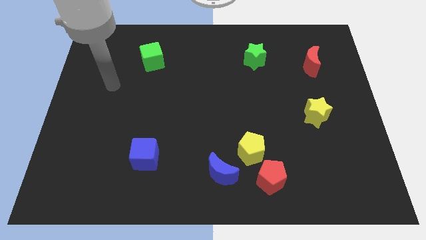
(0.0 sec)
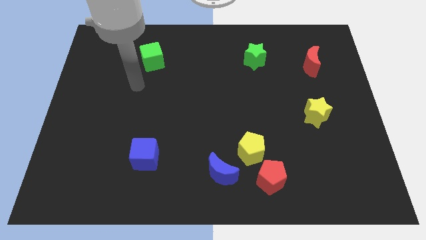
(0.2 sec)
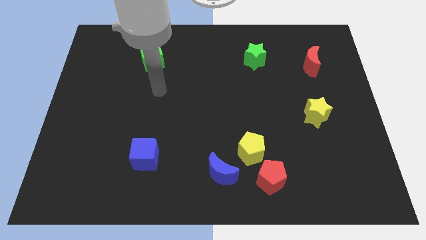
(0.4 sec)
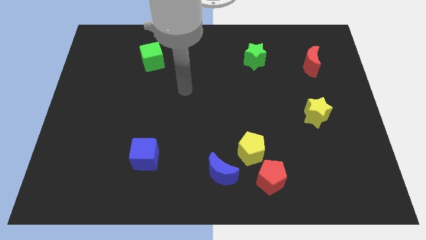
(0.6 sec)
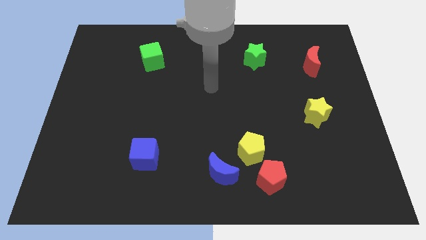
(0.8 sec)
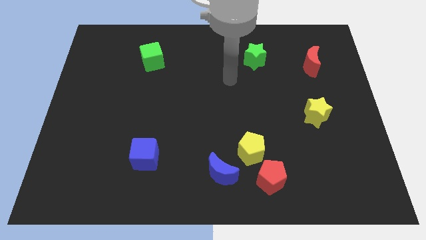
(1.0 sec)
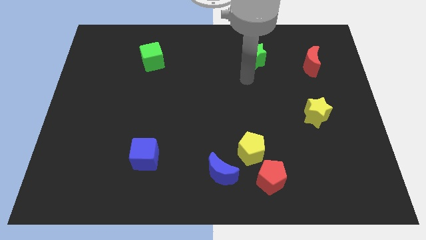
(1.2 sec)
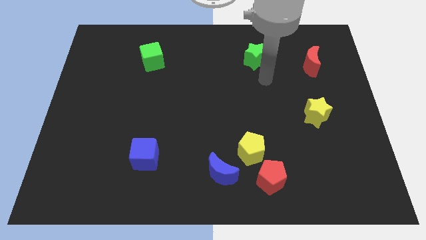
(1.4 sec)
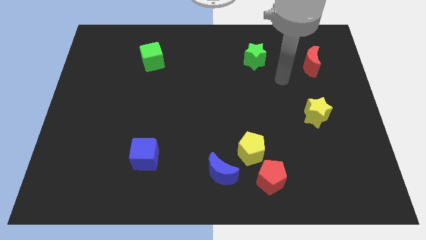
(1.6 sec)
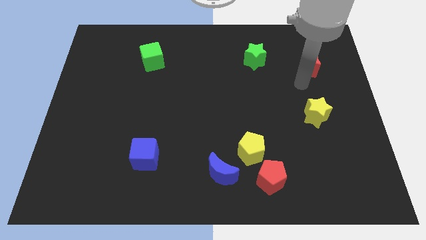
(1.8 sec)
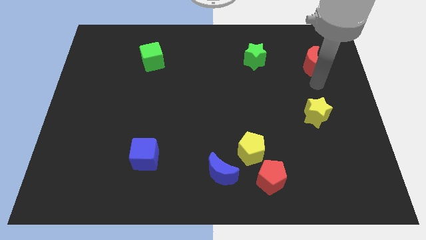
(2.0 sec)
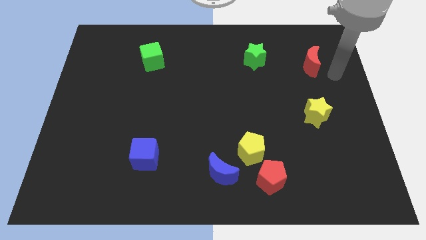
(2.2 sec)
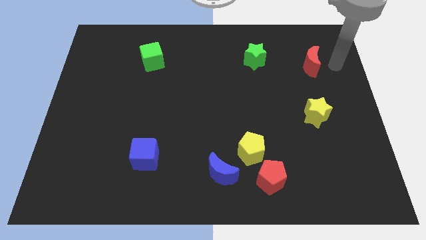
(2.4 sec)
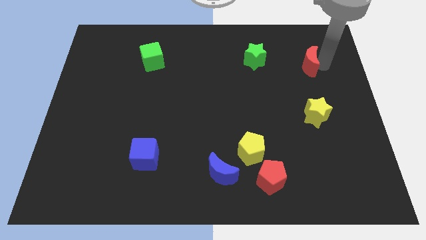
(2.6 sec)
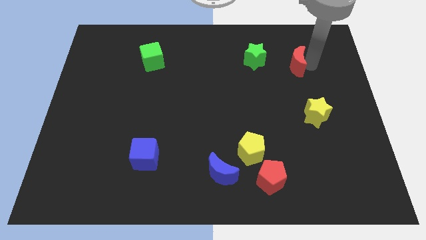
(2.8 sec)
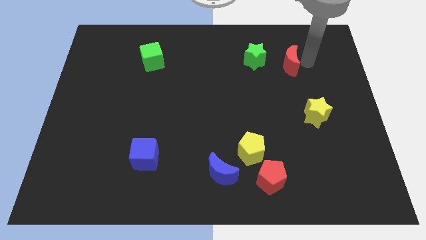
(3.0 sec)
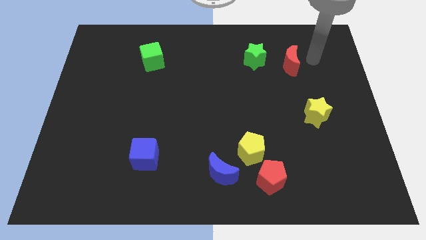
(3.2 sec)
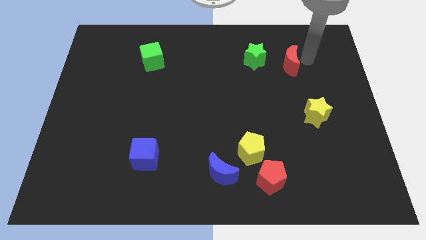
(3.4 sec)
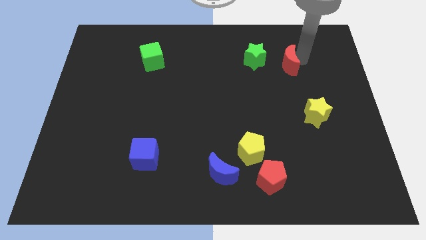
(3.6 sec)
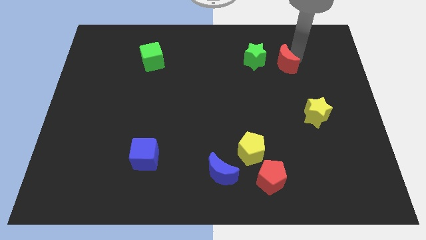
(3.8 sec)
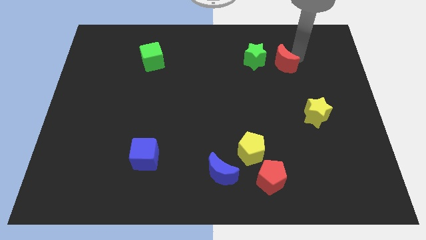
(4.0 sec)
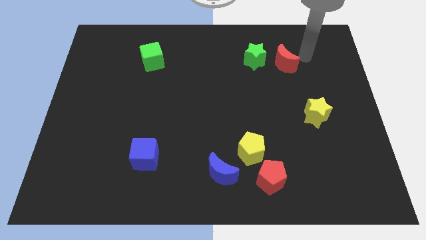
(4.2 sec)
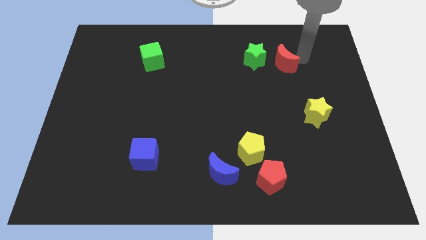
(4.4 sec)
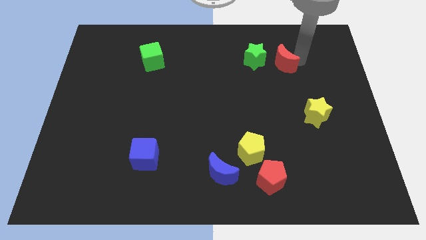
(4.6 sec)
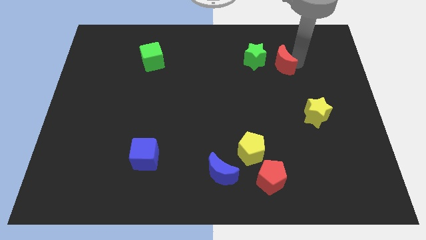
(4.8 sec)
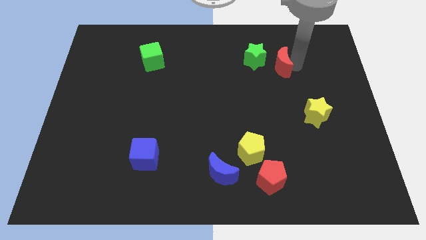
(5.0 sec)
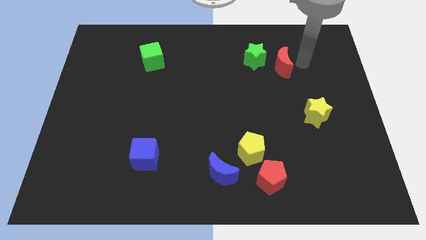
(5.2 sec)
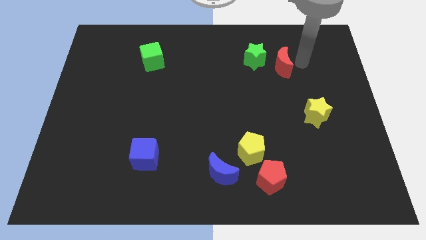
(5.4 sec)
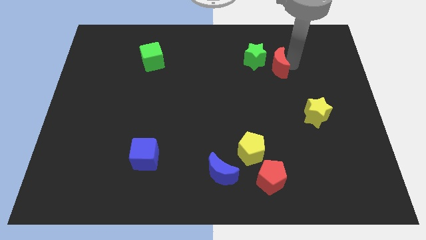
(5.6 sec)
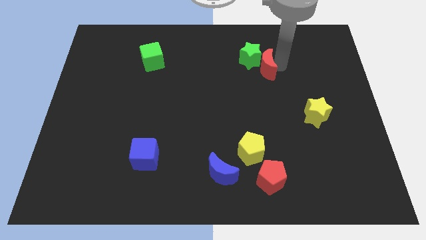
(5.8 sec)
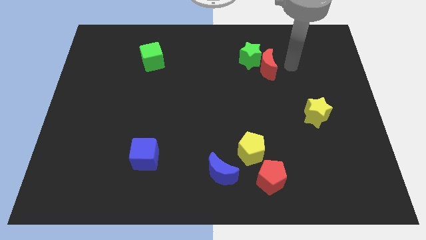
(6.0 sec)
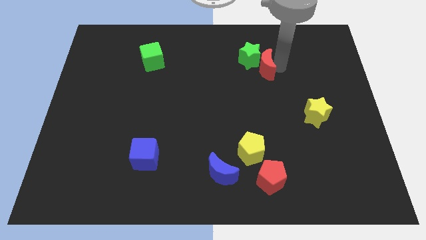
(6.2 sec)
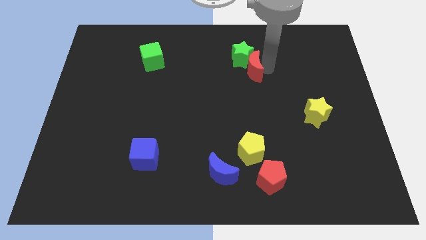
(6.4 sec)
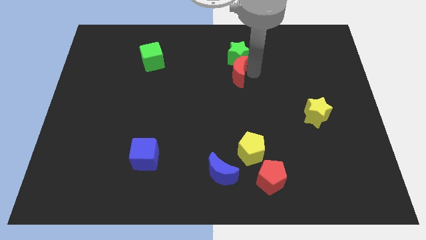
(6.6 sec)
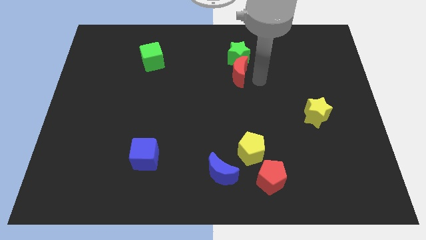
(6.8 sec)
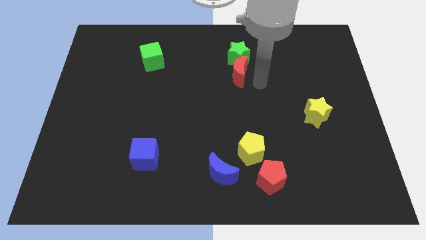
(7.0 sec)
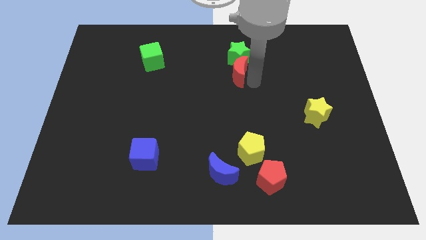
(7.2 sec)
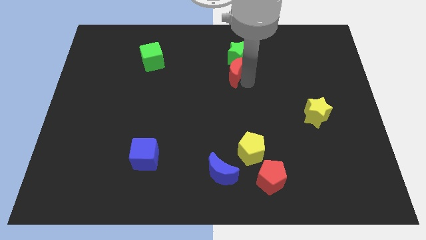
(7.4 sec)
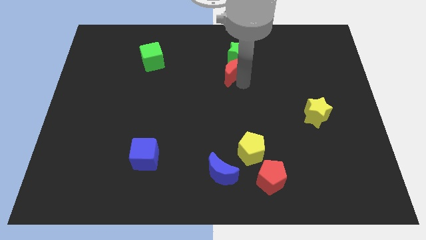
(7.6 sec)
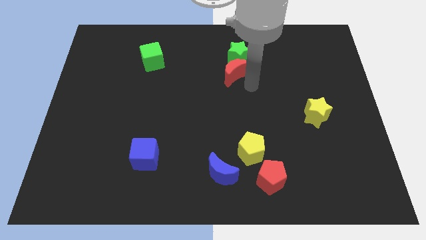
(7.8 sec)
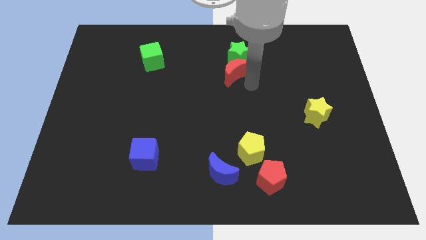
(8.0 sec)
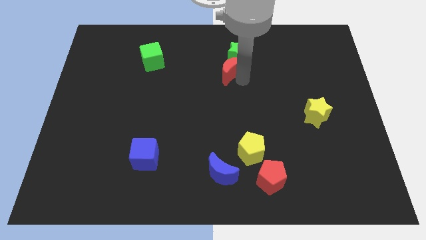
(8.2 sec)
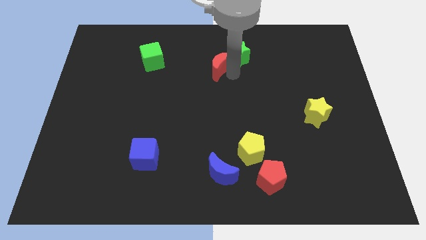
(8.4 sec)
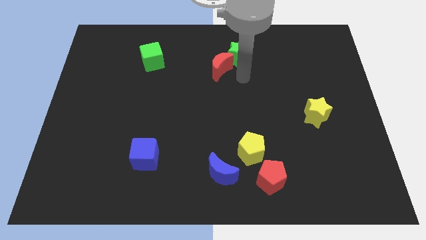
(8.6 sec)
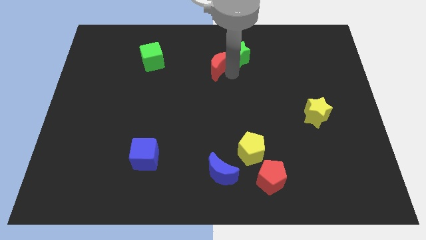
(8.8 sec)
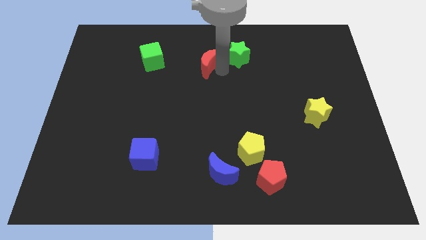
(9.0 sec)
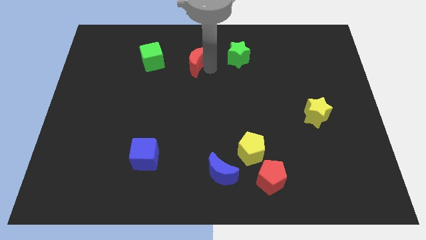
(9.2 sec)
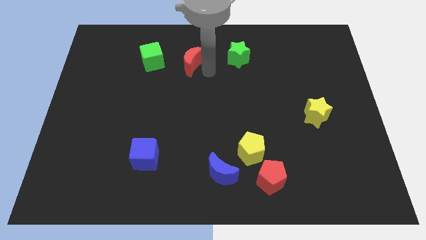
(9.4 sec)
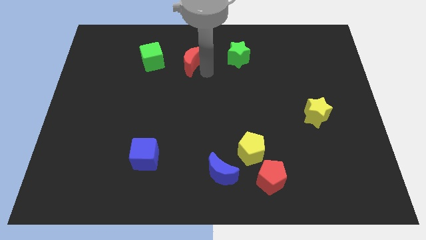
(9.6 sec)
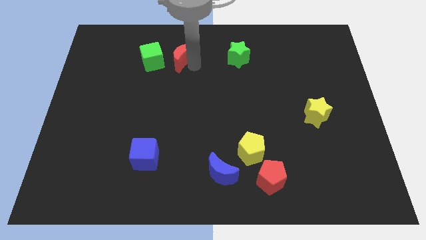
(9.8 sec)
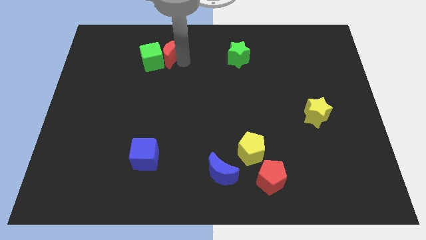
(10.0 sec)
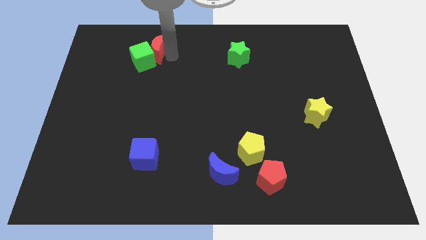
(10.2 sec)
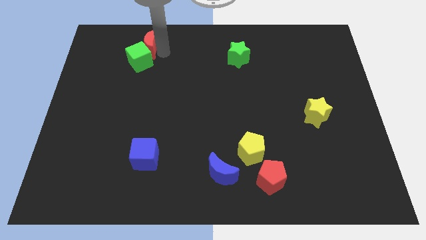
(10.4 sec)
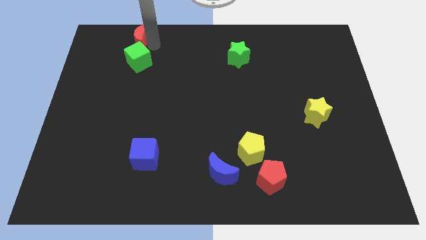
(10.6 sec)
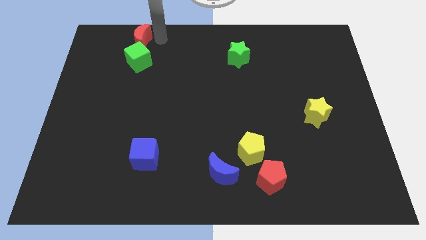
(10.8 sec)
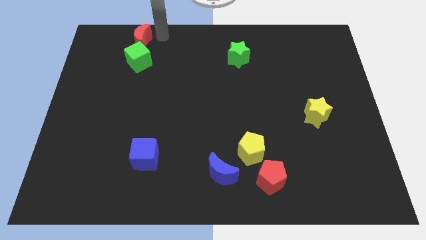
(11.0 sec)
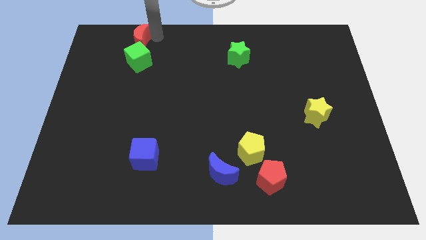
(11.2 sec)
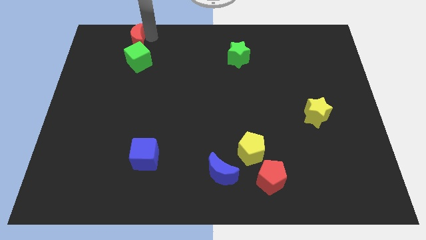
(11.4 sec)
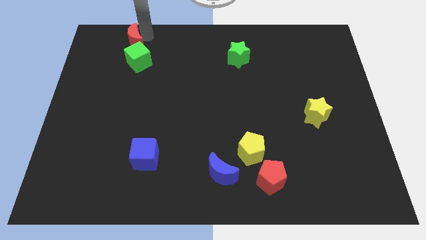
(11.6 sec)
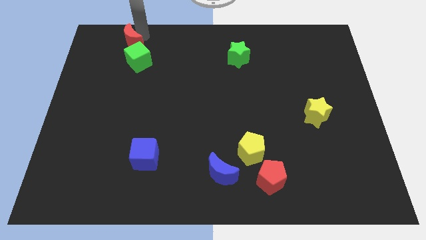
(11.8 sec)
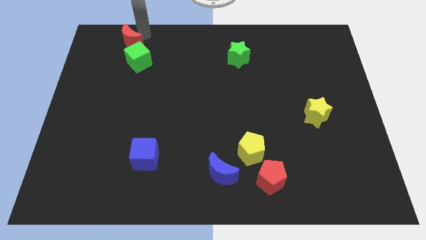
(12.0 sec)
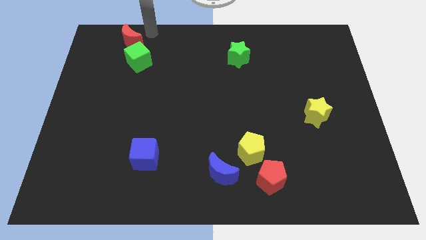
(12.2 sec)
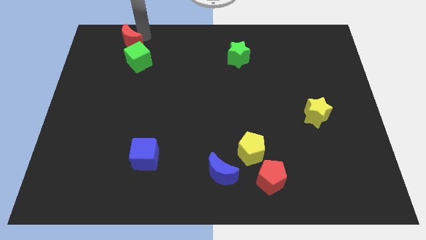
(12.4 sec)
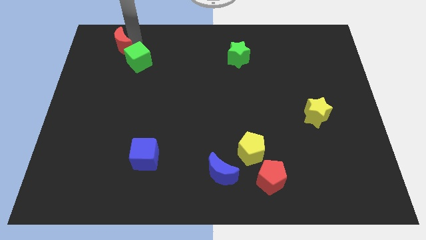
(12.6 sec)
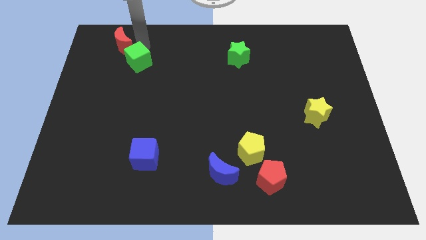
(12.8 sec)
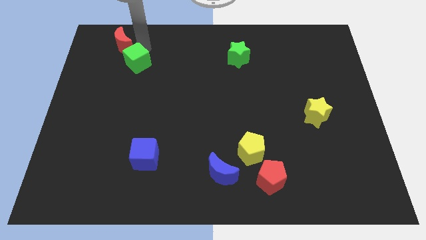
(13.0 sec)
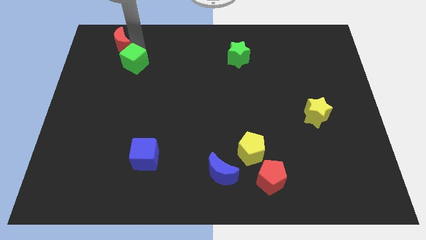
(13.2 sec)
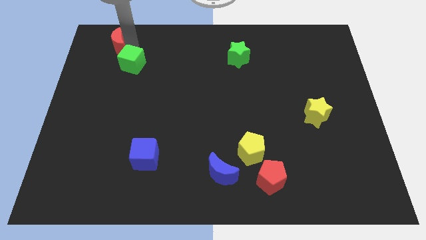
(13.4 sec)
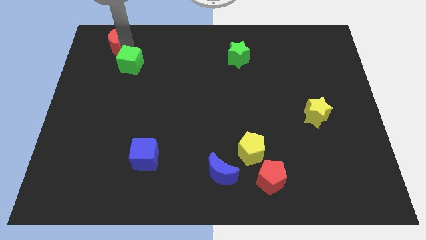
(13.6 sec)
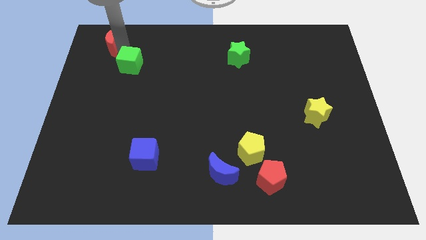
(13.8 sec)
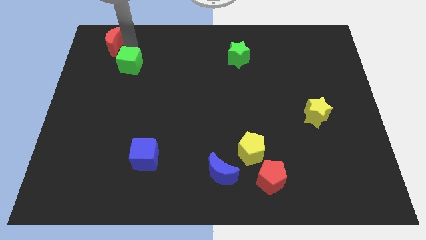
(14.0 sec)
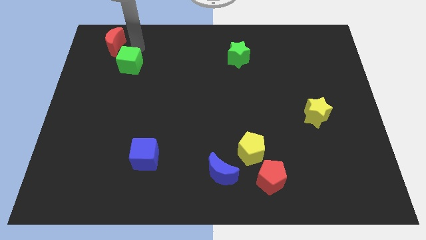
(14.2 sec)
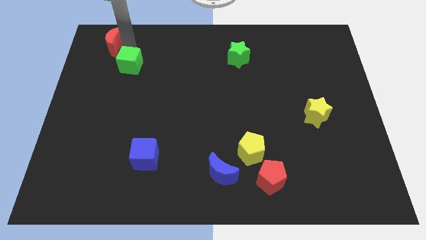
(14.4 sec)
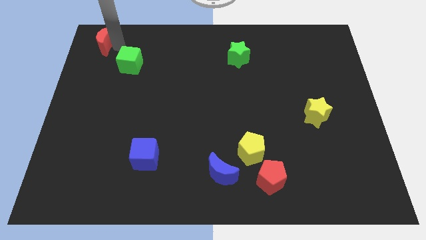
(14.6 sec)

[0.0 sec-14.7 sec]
slide the red moon to the top left
